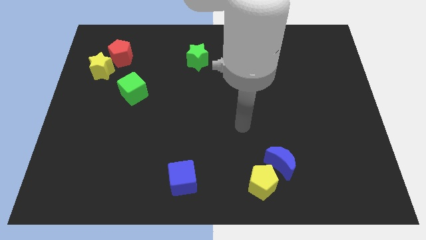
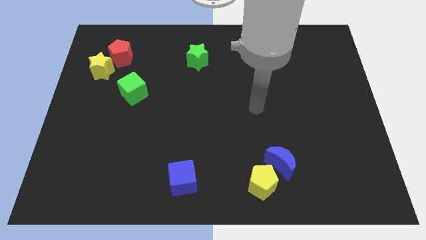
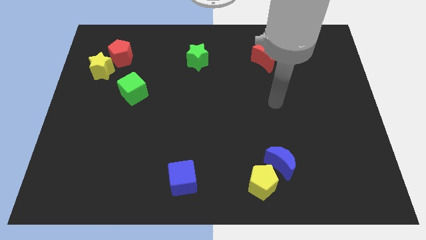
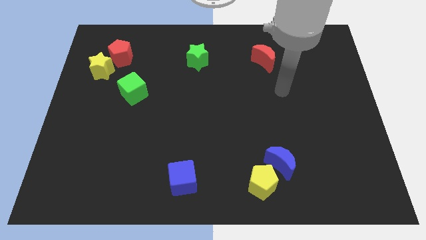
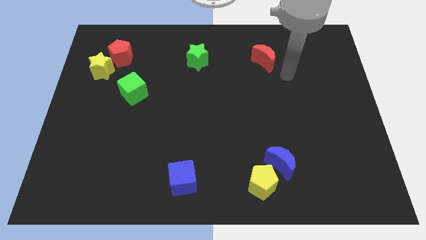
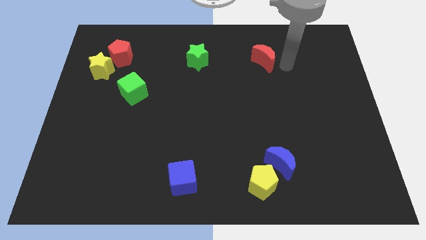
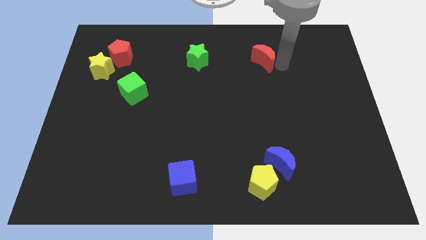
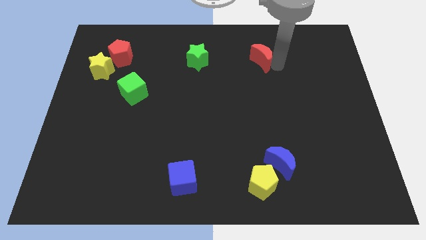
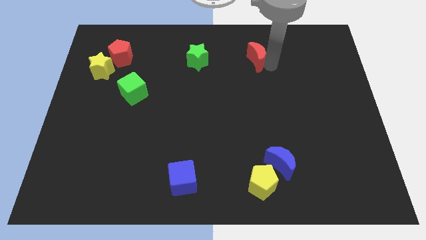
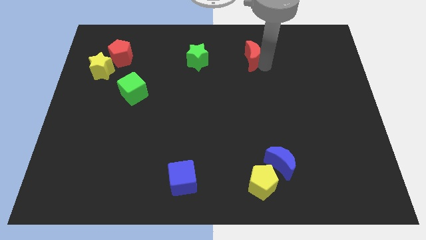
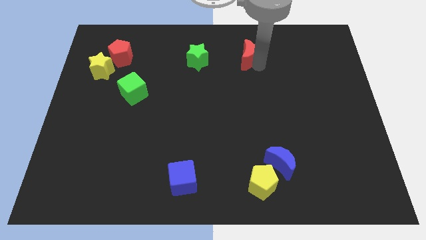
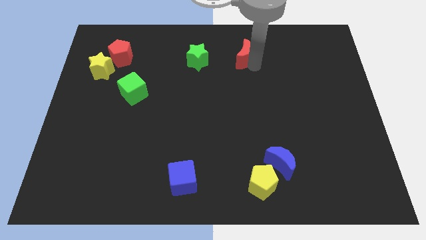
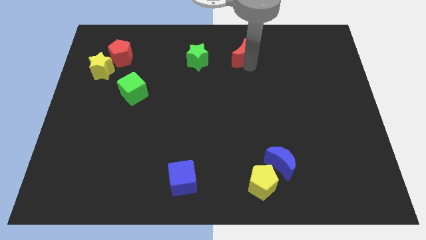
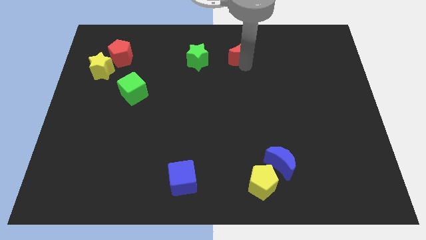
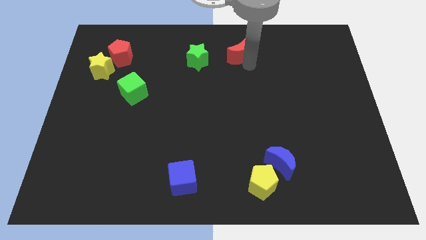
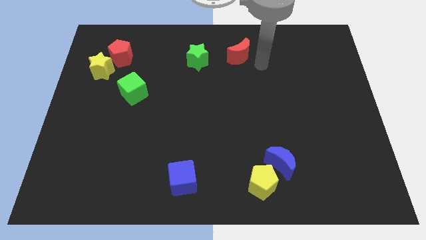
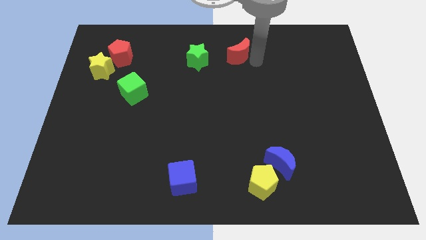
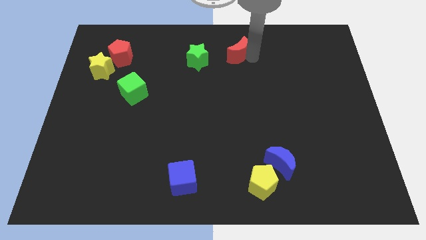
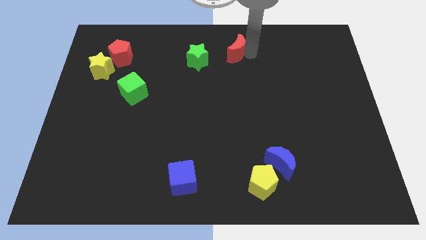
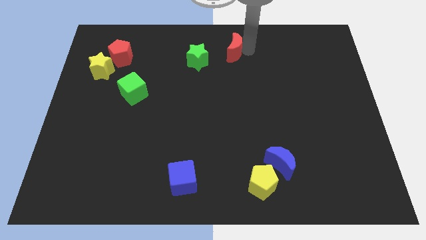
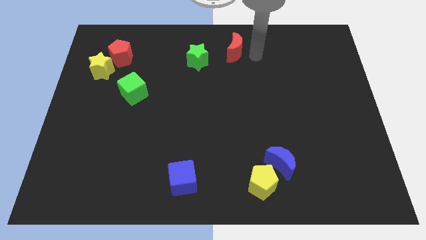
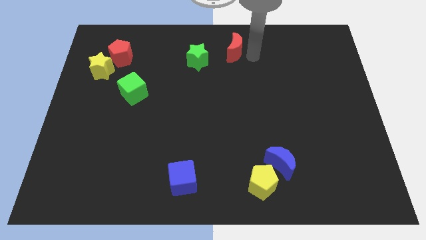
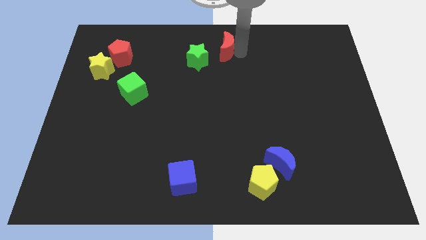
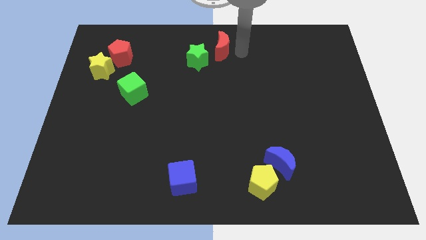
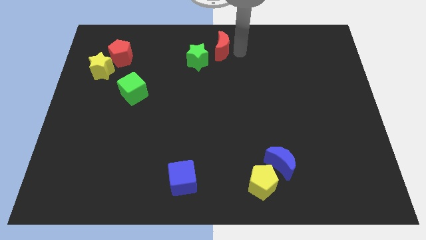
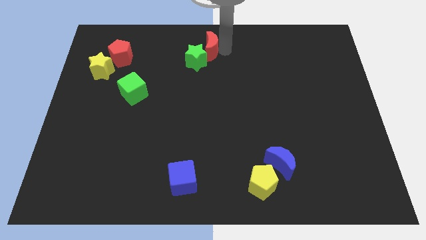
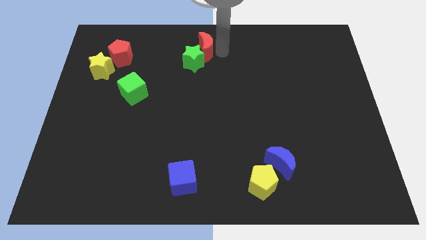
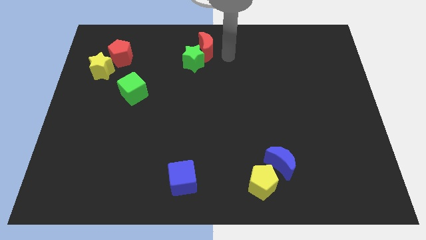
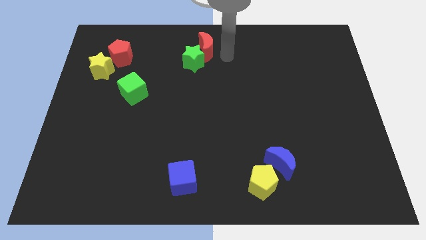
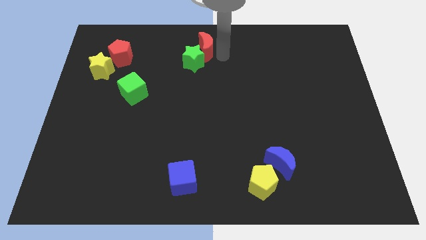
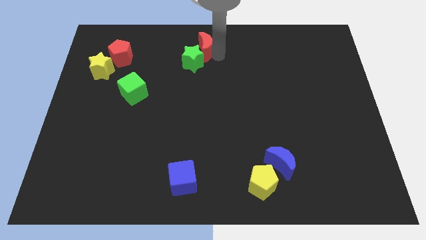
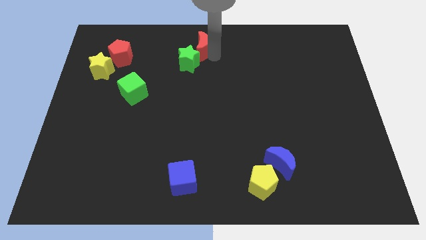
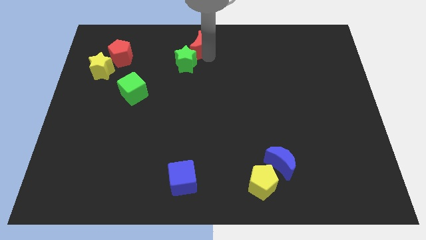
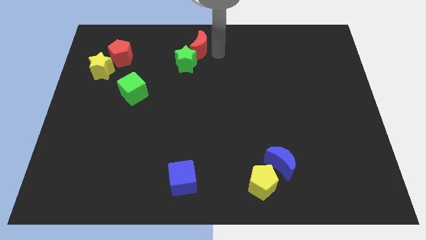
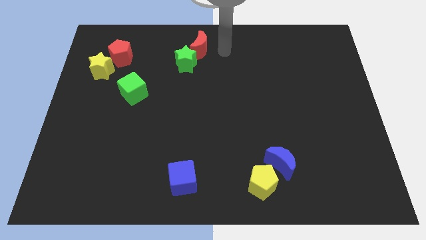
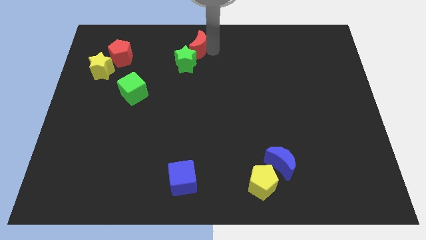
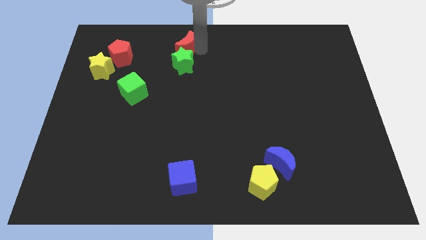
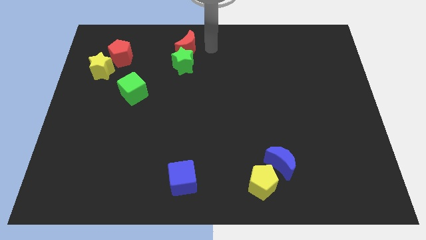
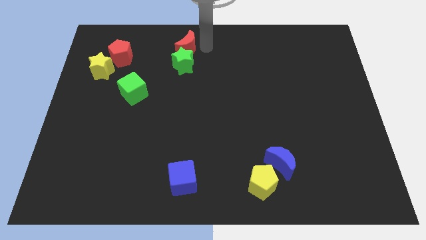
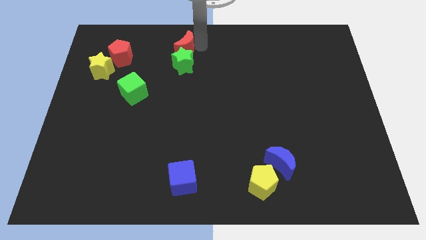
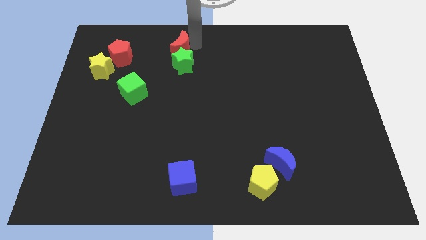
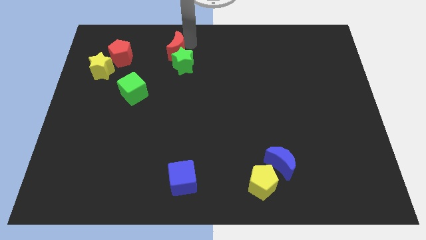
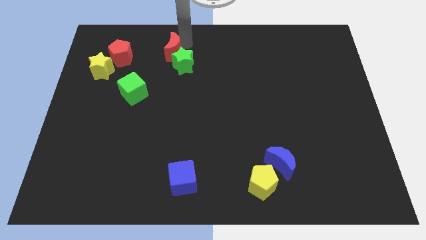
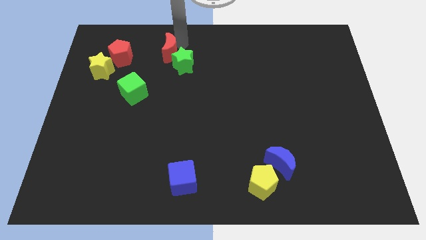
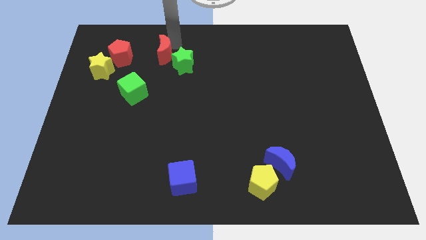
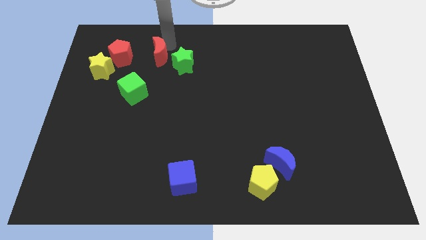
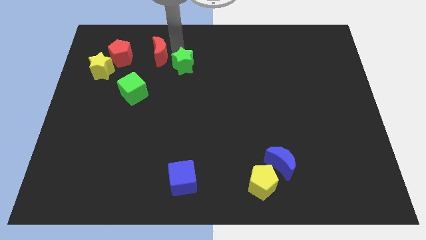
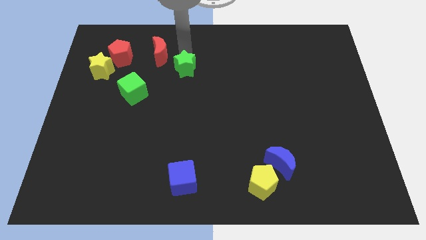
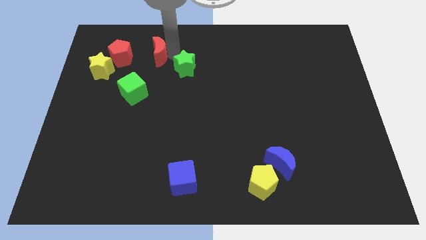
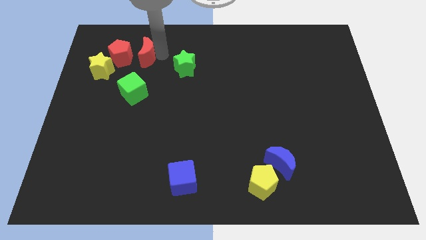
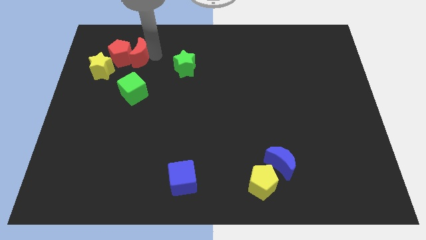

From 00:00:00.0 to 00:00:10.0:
push the red moon to the red pentagon

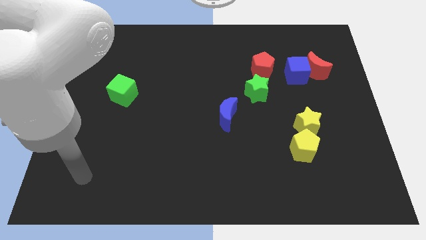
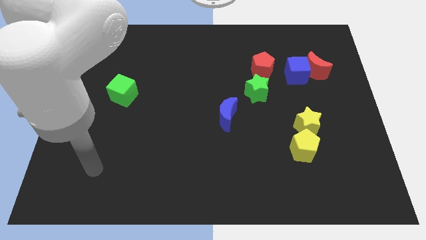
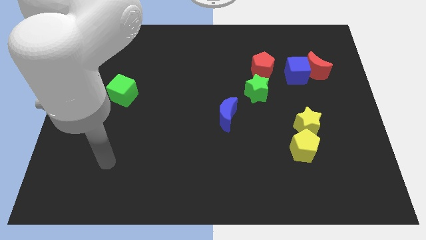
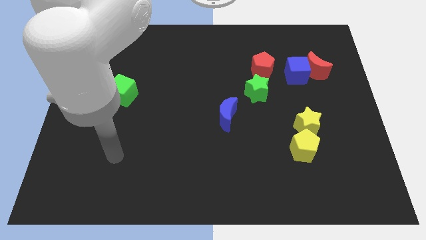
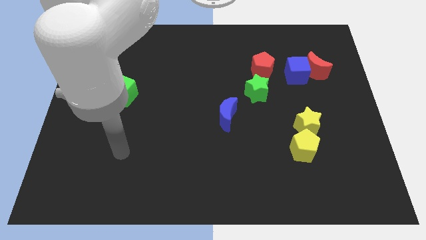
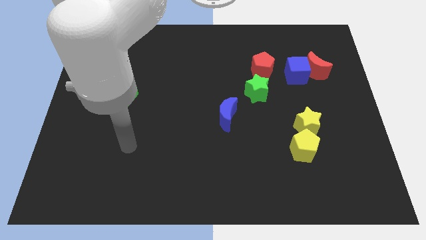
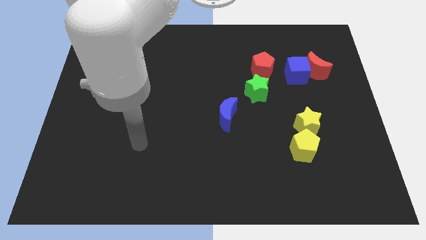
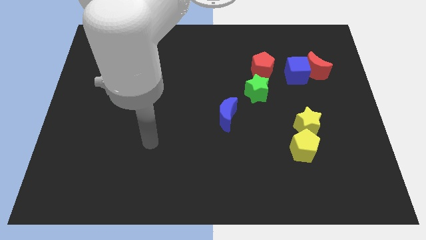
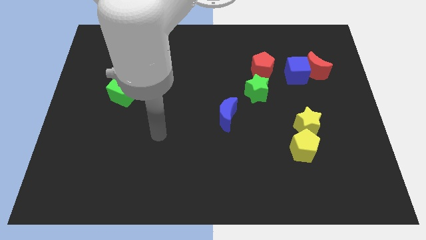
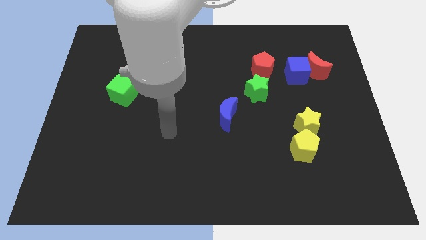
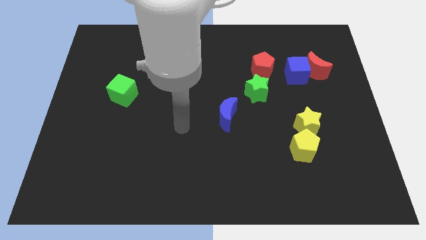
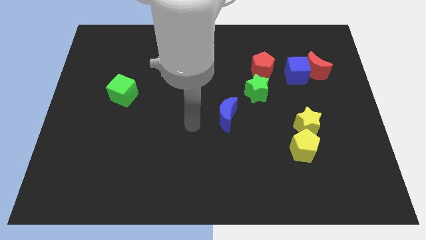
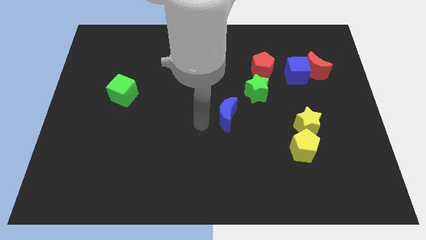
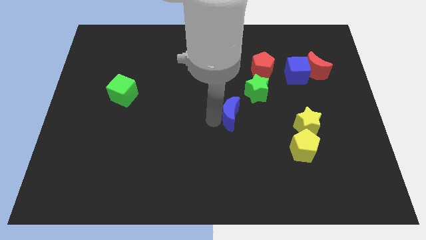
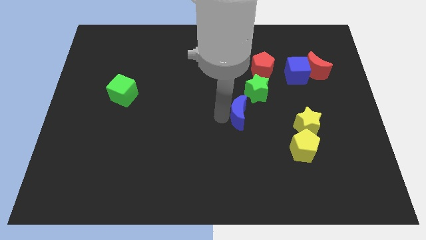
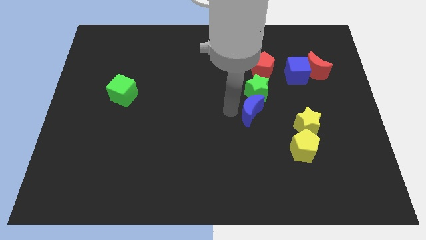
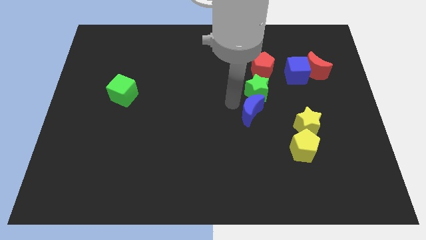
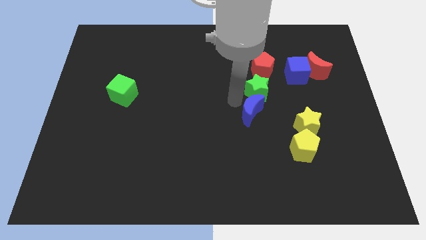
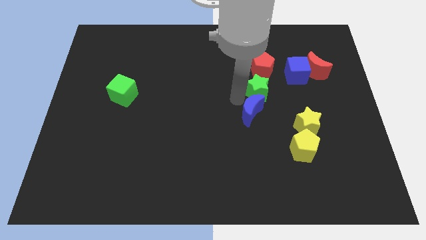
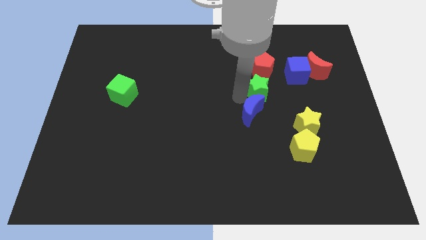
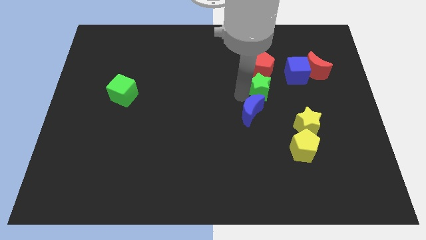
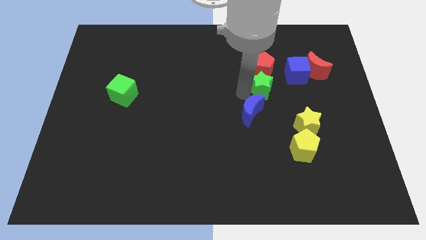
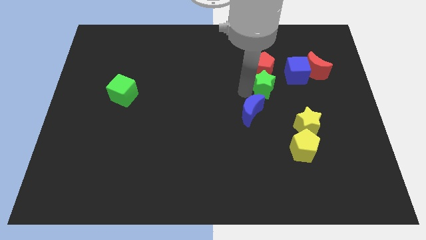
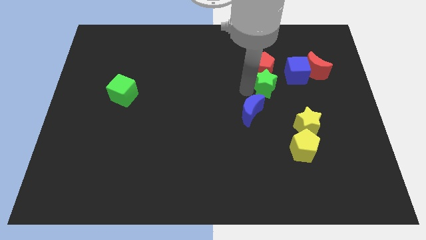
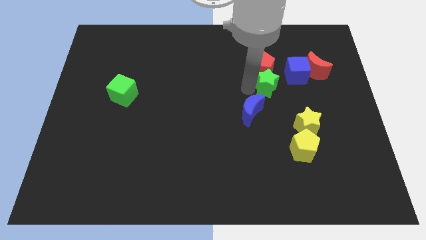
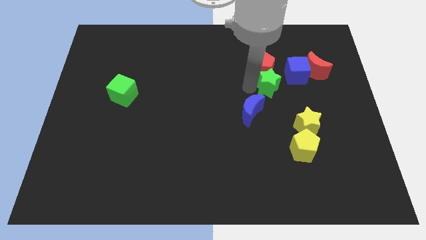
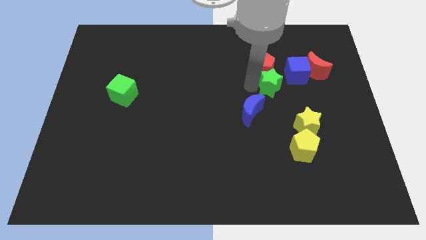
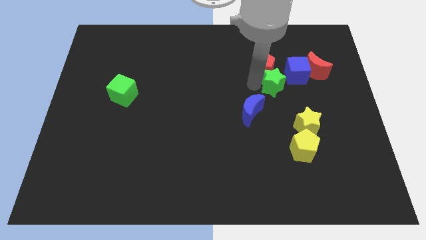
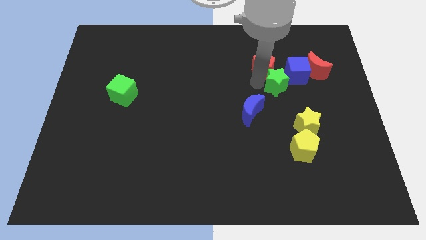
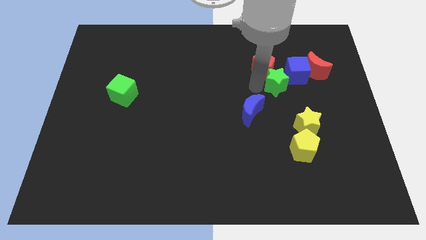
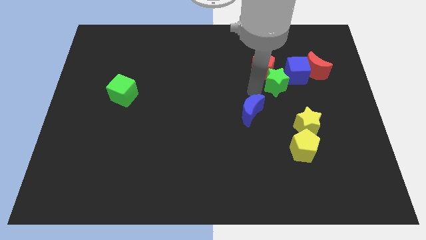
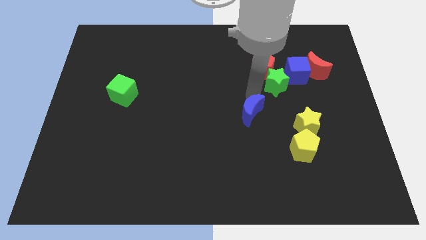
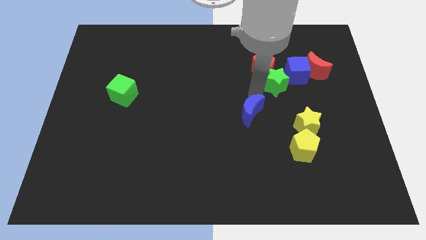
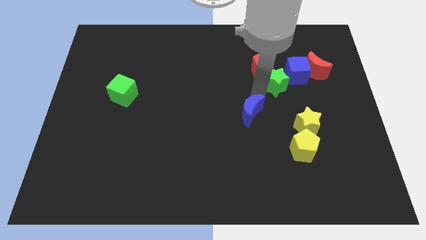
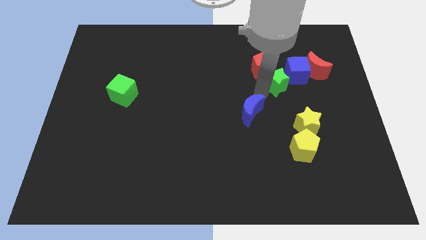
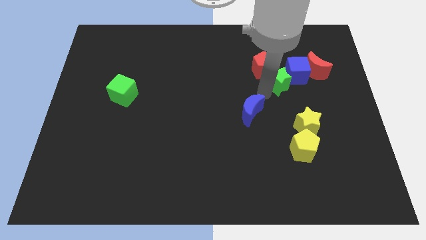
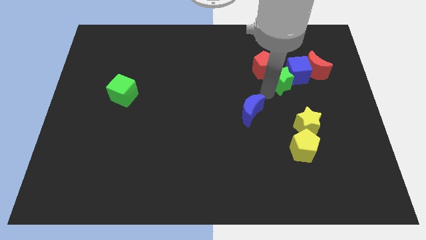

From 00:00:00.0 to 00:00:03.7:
slide the green star to the blue cube
